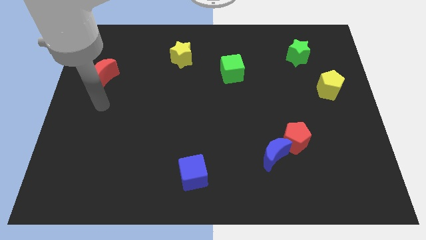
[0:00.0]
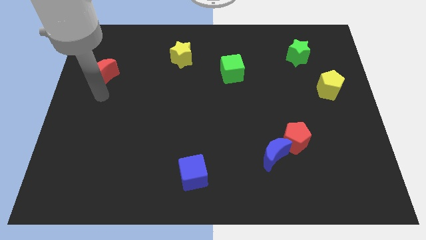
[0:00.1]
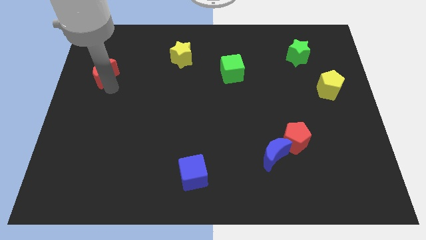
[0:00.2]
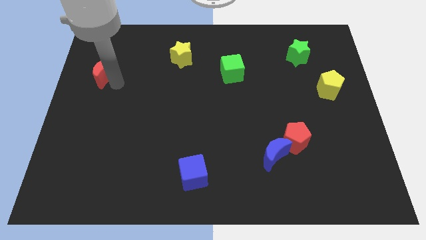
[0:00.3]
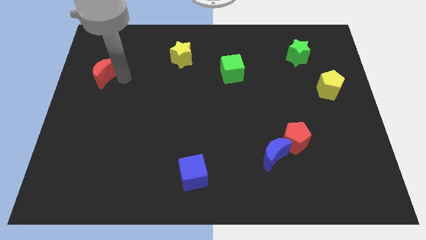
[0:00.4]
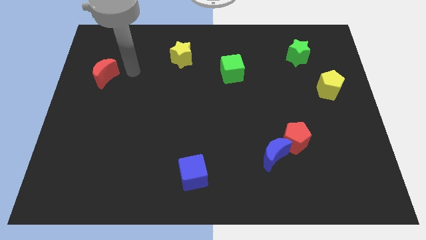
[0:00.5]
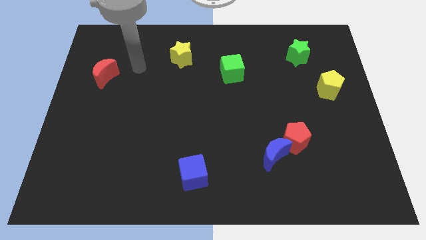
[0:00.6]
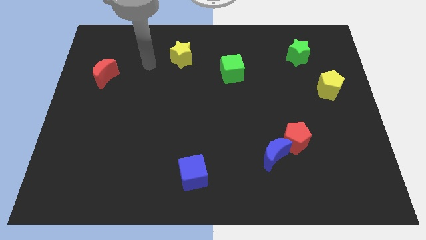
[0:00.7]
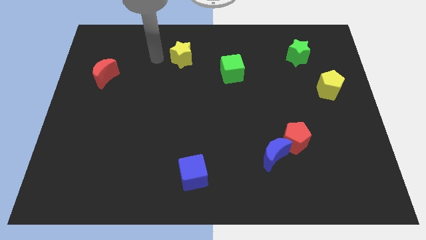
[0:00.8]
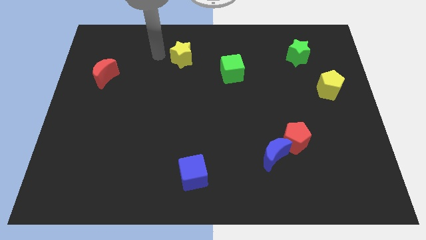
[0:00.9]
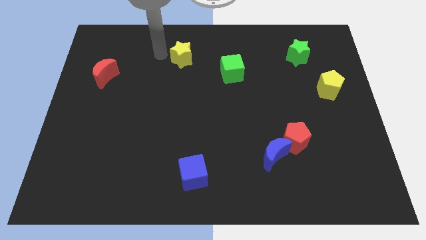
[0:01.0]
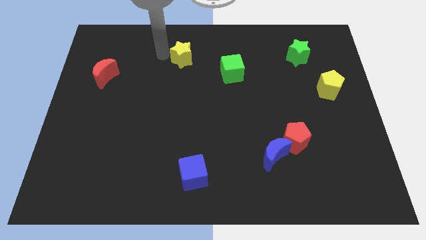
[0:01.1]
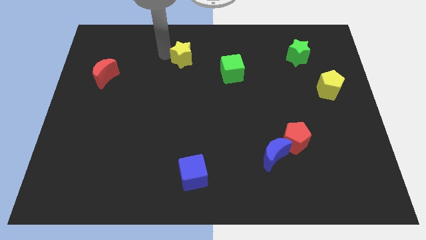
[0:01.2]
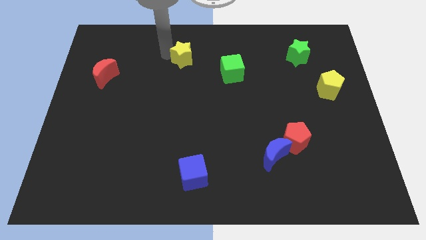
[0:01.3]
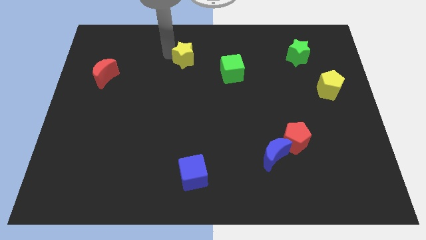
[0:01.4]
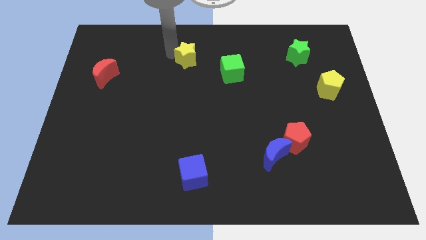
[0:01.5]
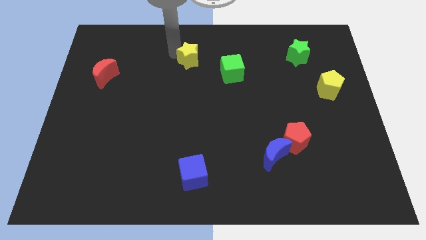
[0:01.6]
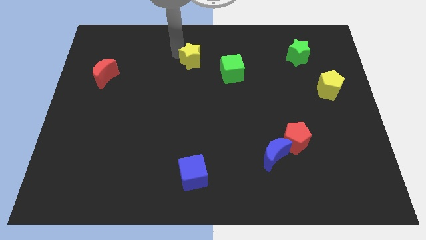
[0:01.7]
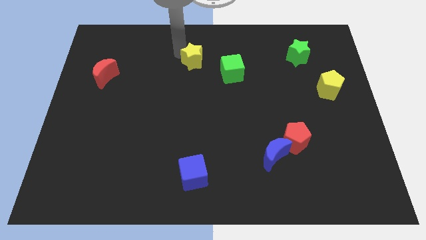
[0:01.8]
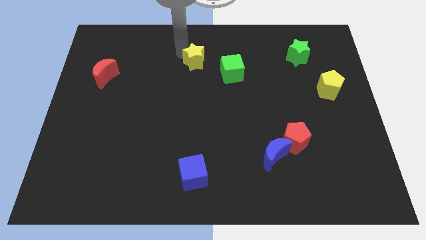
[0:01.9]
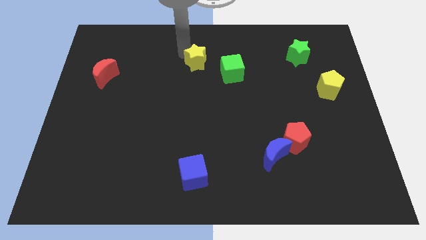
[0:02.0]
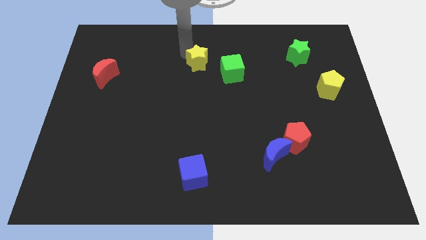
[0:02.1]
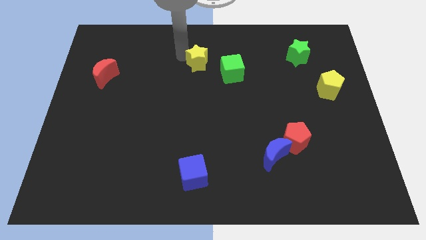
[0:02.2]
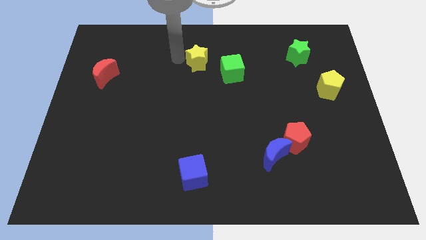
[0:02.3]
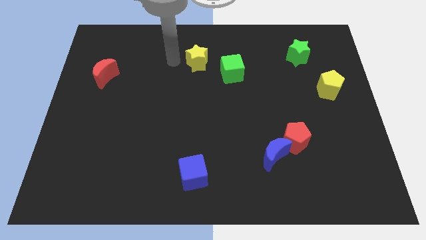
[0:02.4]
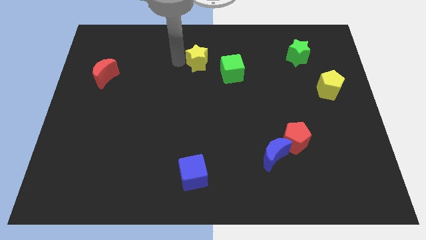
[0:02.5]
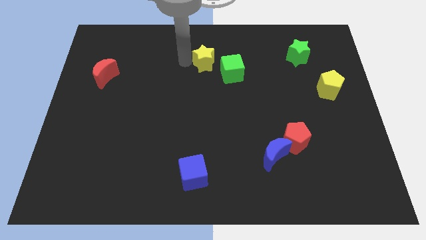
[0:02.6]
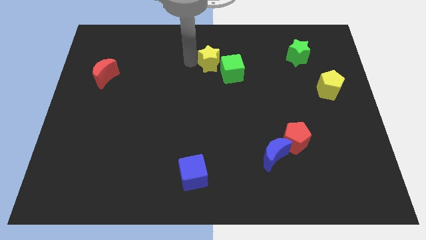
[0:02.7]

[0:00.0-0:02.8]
push the yellow star a little bit to the right

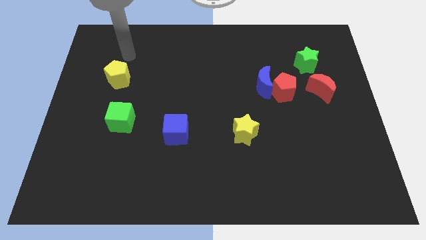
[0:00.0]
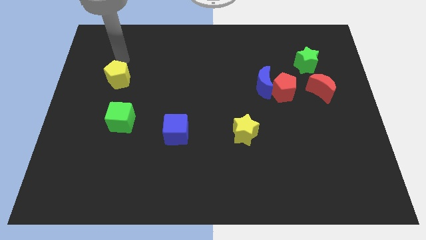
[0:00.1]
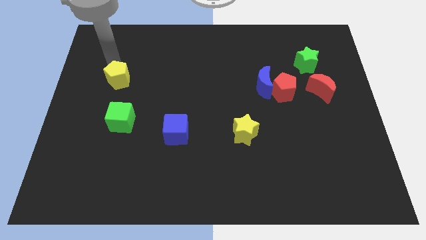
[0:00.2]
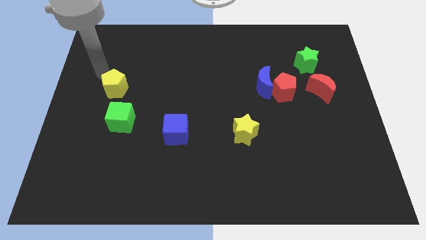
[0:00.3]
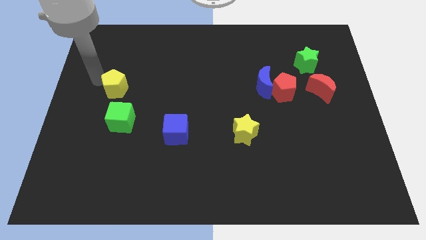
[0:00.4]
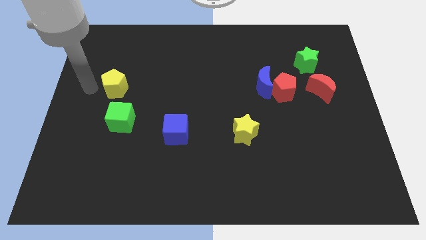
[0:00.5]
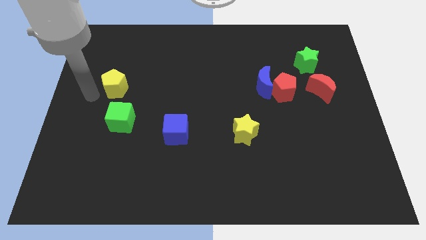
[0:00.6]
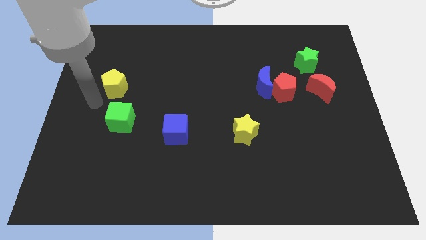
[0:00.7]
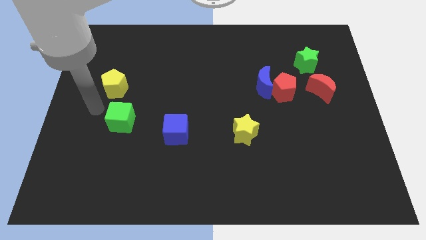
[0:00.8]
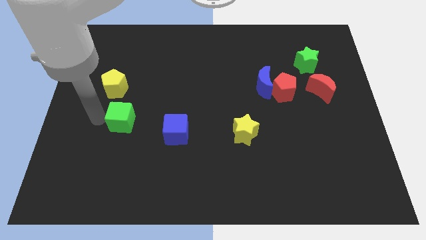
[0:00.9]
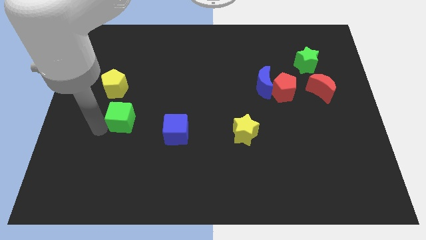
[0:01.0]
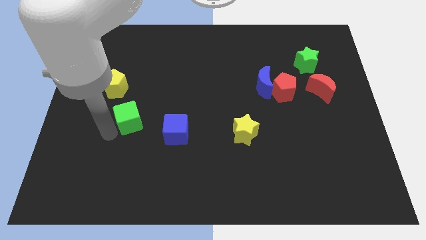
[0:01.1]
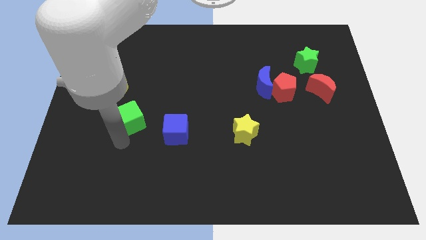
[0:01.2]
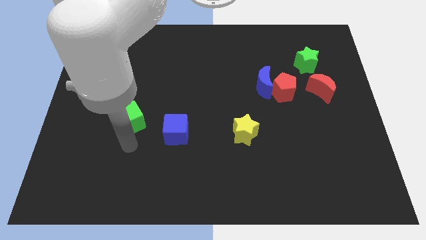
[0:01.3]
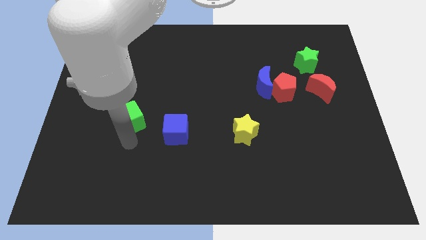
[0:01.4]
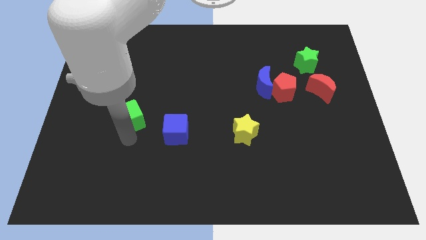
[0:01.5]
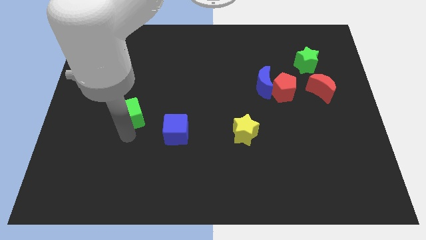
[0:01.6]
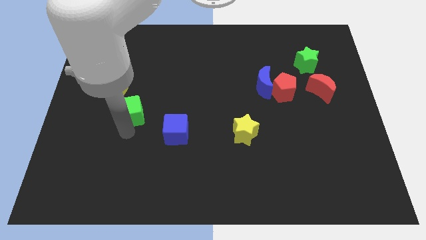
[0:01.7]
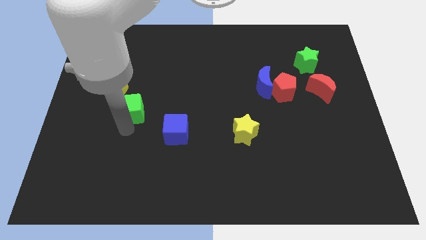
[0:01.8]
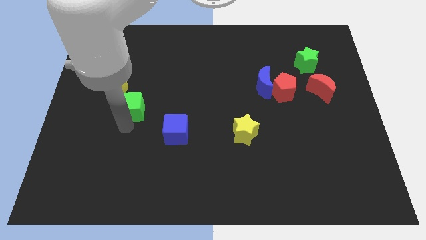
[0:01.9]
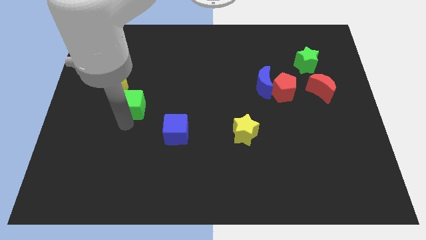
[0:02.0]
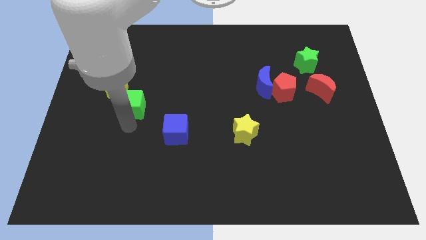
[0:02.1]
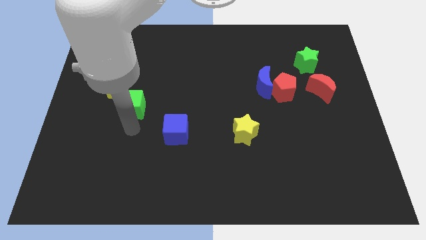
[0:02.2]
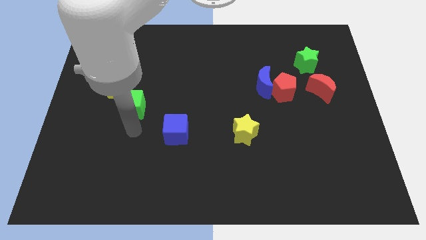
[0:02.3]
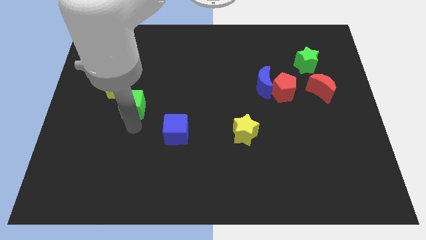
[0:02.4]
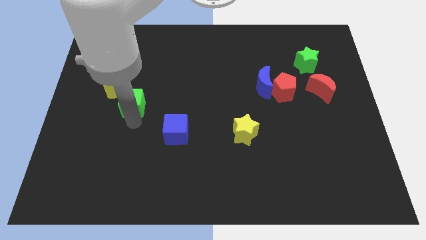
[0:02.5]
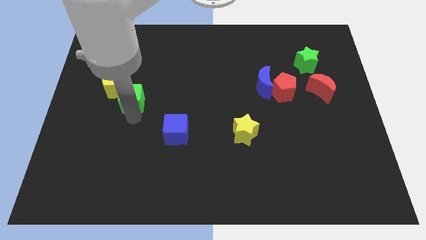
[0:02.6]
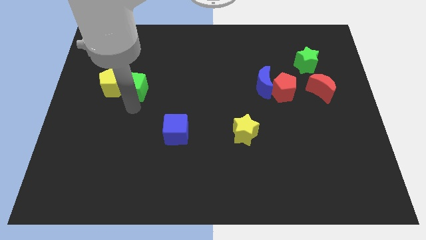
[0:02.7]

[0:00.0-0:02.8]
push the green cube a bit up

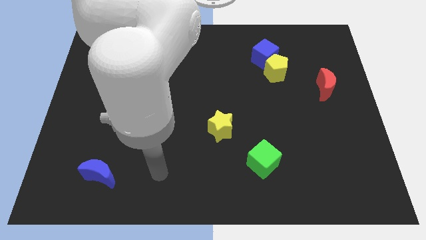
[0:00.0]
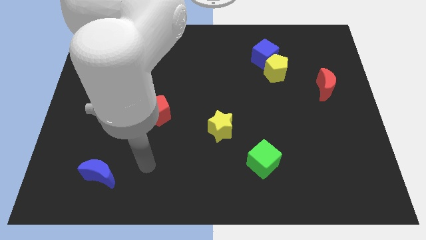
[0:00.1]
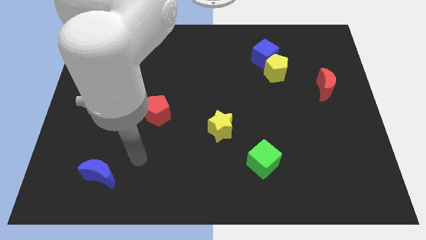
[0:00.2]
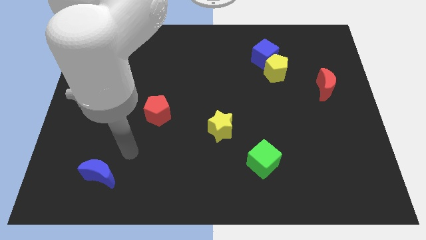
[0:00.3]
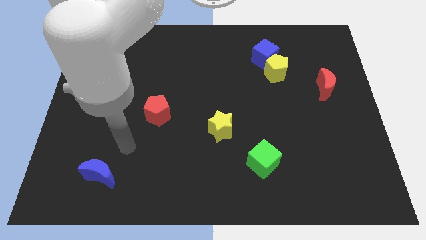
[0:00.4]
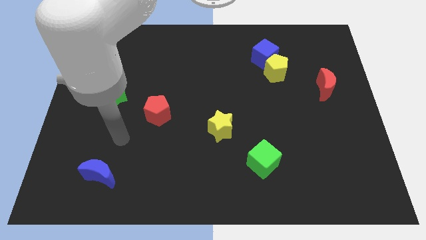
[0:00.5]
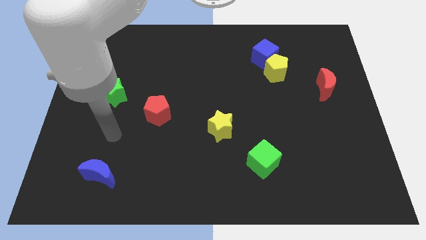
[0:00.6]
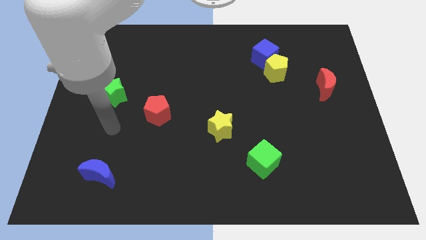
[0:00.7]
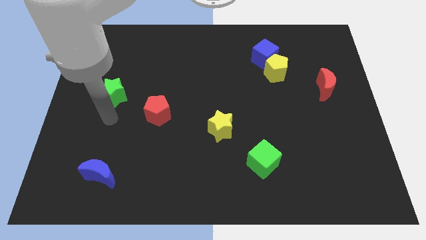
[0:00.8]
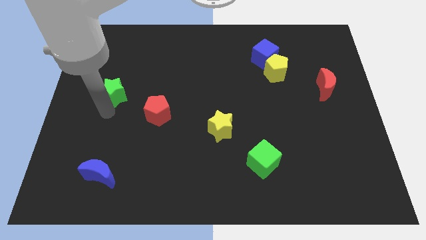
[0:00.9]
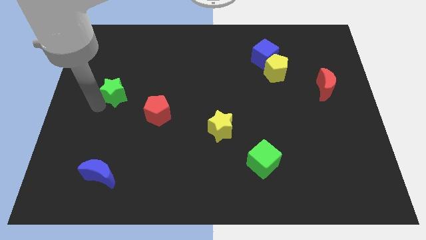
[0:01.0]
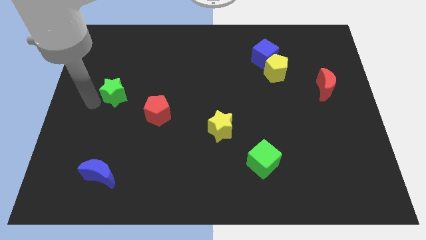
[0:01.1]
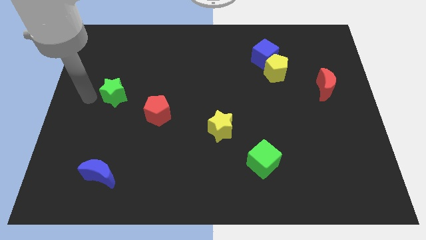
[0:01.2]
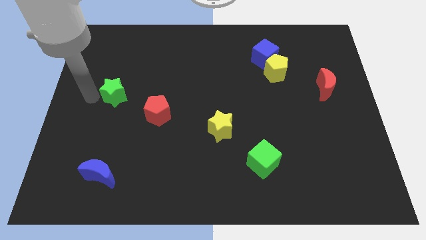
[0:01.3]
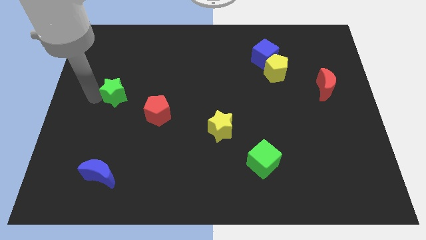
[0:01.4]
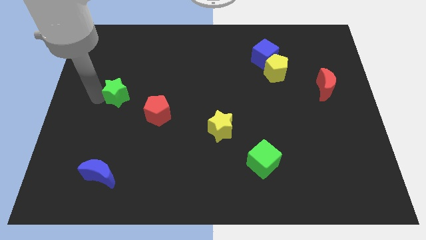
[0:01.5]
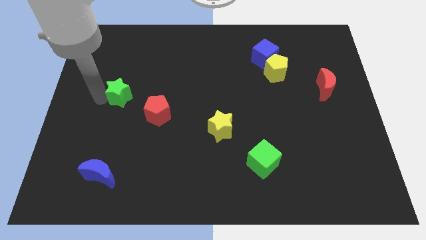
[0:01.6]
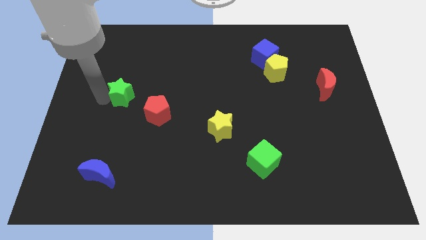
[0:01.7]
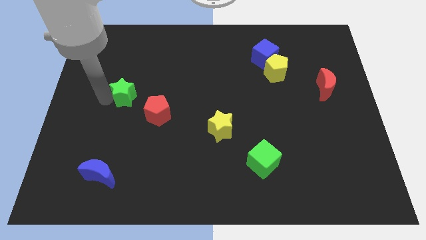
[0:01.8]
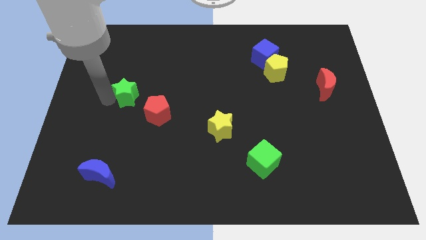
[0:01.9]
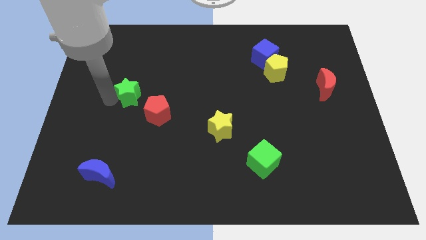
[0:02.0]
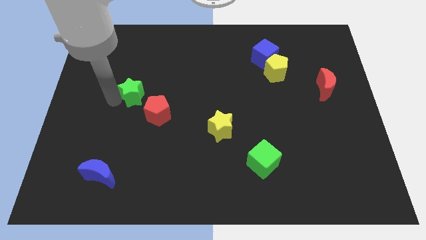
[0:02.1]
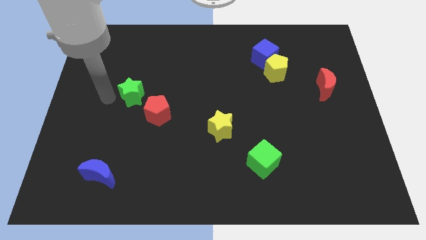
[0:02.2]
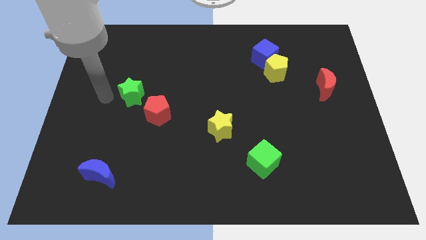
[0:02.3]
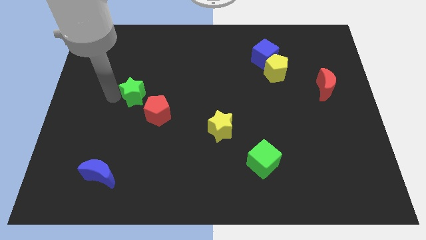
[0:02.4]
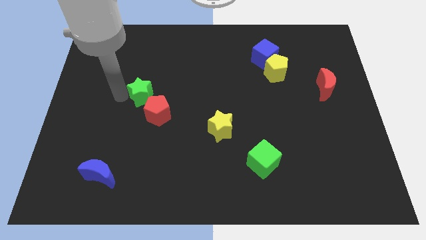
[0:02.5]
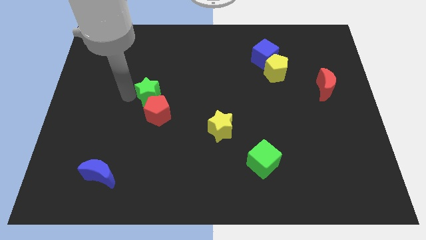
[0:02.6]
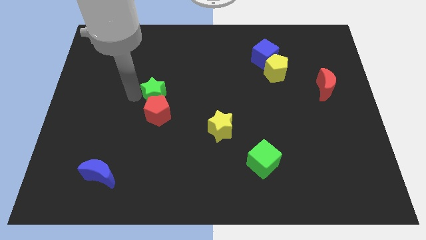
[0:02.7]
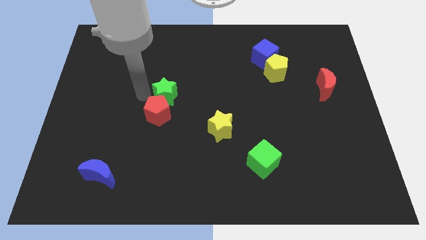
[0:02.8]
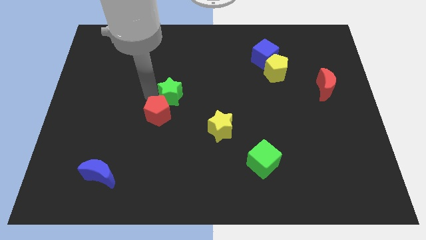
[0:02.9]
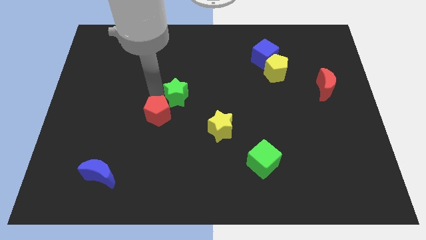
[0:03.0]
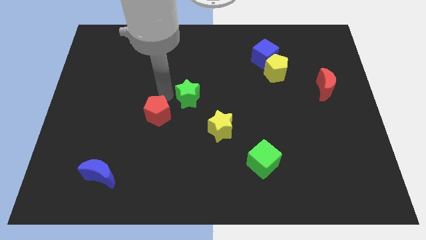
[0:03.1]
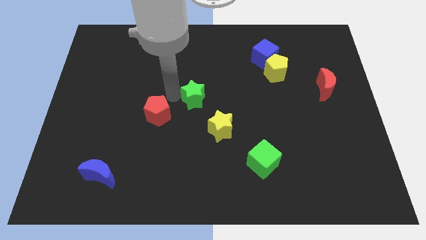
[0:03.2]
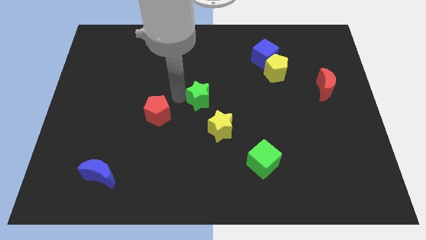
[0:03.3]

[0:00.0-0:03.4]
slide the green star right
